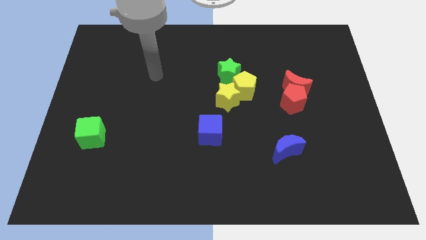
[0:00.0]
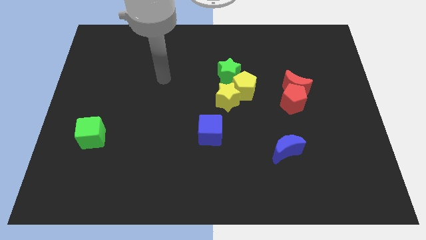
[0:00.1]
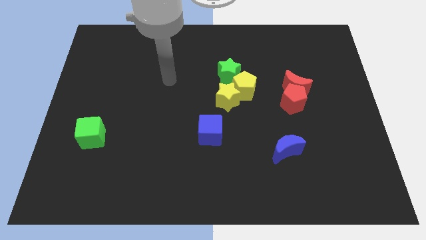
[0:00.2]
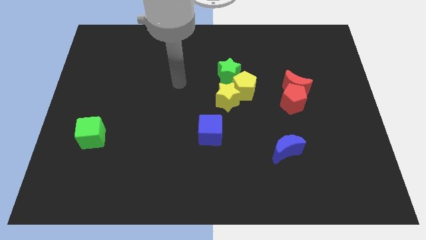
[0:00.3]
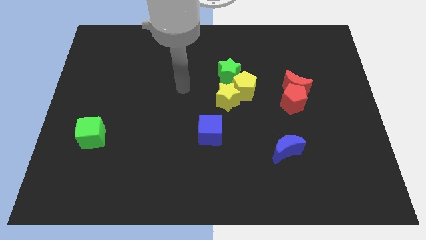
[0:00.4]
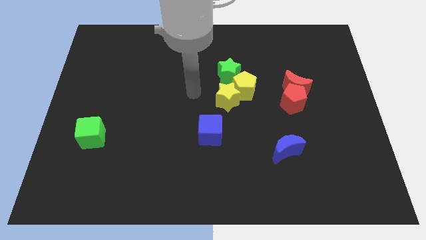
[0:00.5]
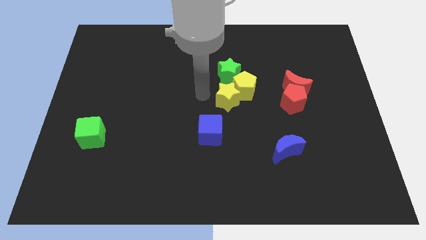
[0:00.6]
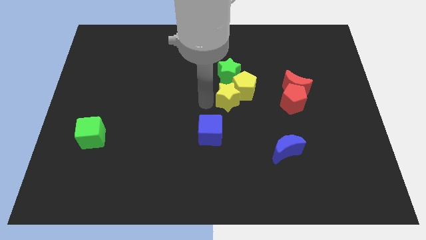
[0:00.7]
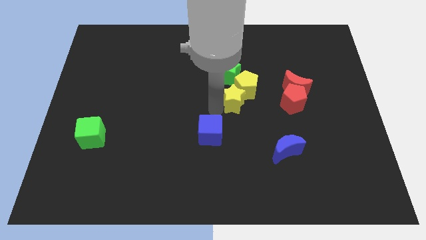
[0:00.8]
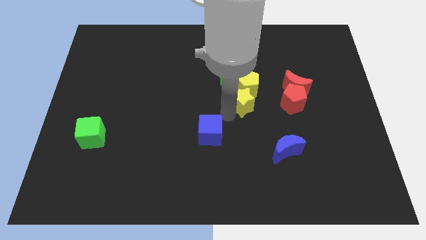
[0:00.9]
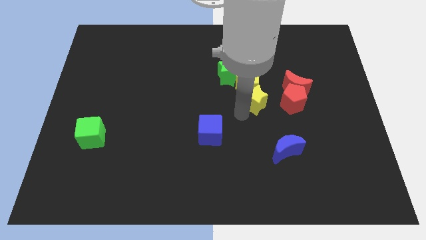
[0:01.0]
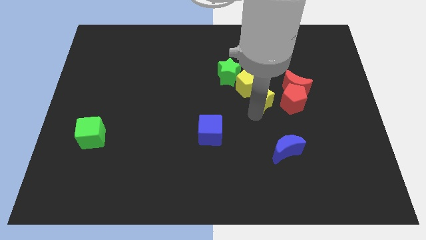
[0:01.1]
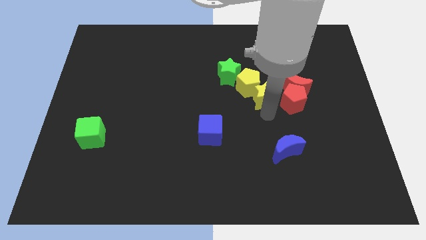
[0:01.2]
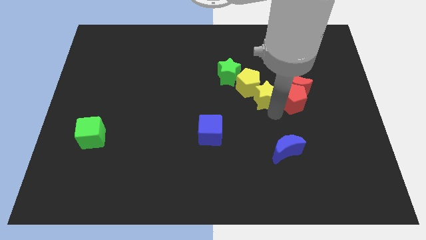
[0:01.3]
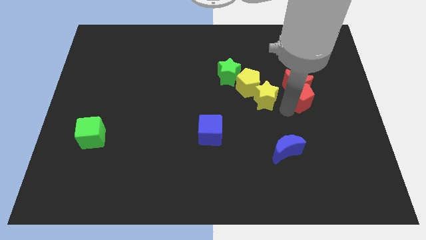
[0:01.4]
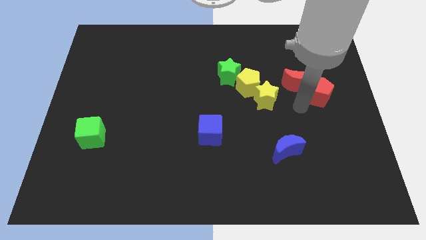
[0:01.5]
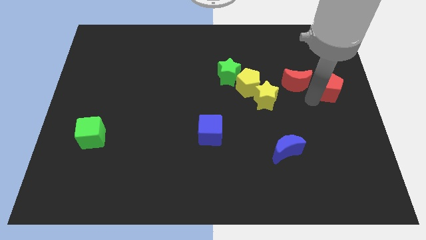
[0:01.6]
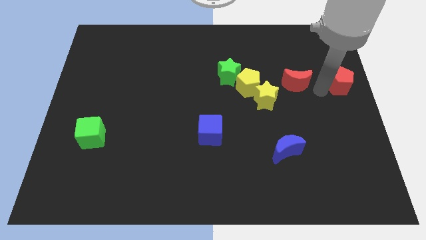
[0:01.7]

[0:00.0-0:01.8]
move the red moon away from the red pentagon

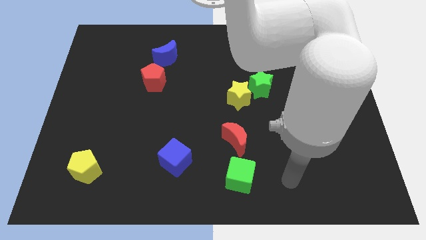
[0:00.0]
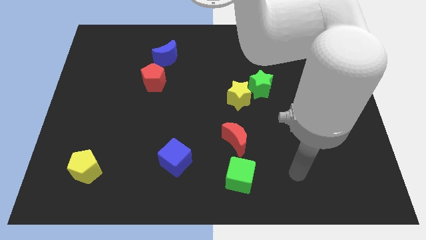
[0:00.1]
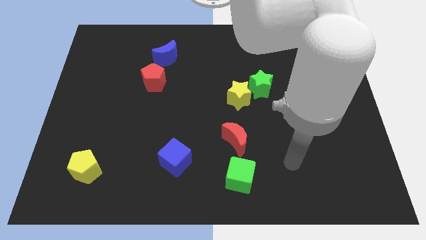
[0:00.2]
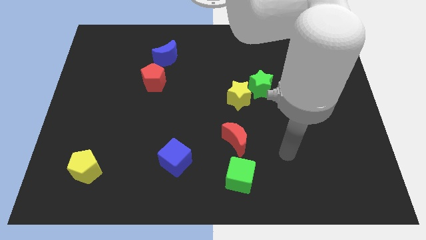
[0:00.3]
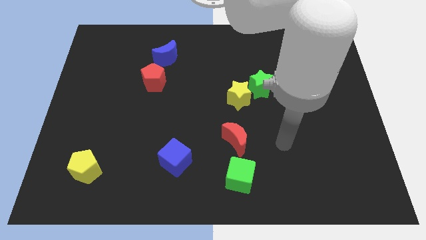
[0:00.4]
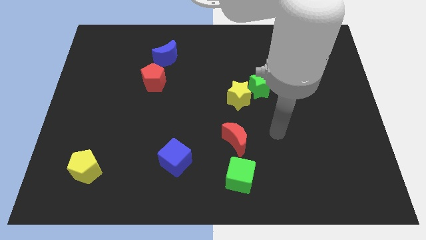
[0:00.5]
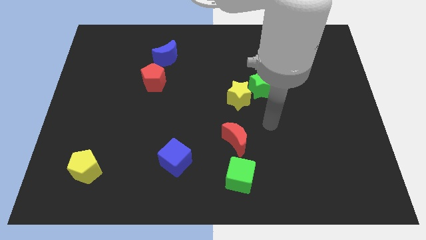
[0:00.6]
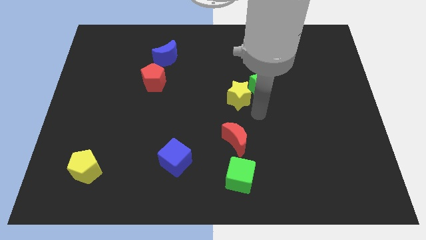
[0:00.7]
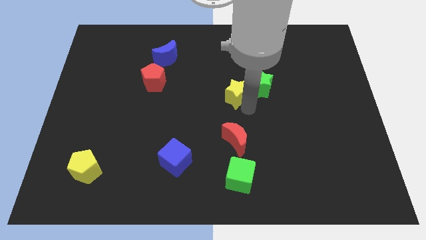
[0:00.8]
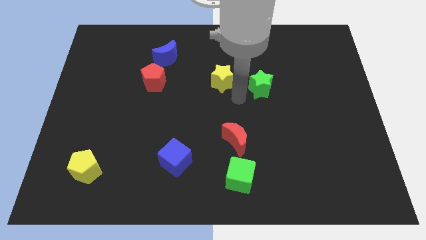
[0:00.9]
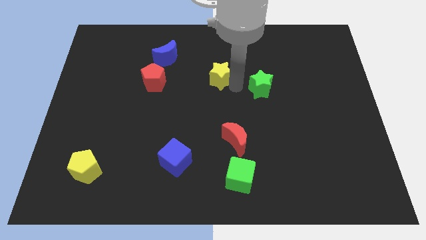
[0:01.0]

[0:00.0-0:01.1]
pull the green star apart from the yellow star

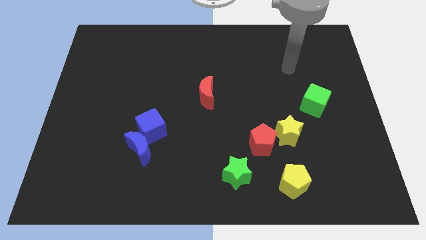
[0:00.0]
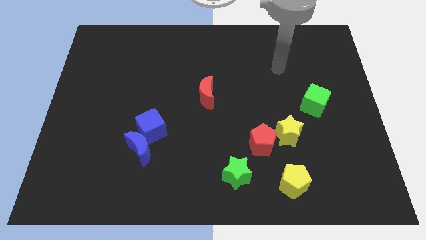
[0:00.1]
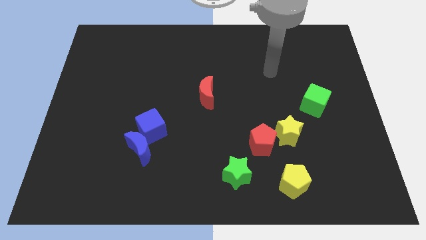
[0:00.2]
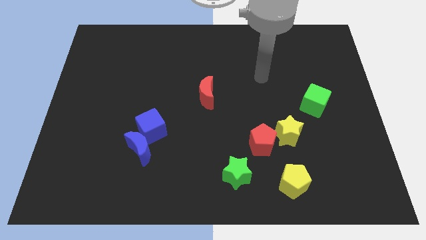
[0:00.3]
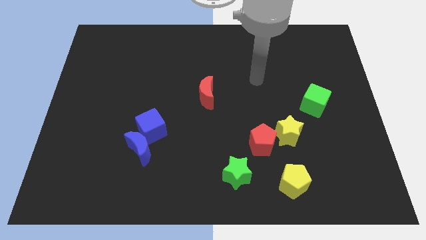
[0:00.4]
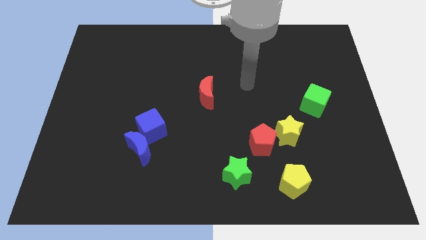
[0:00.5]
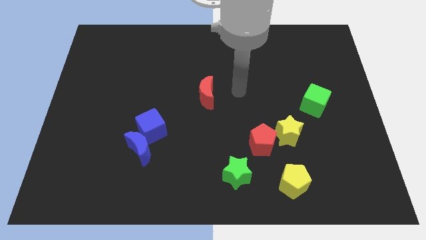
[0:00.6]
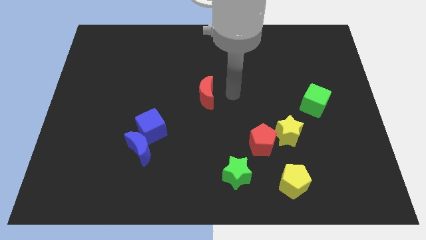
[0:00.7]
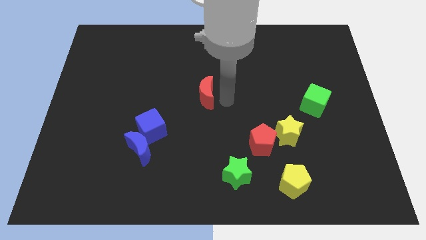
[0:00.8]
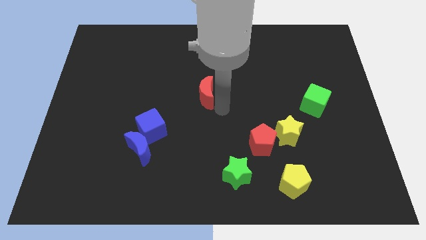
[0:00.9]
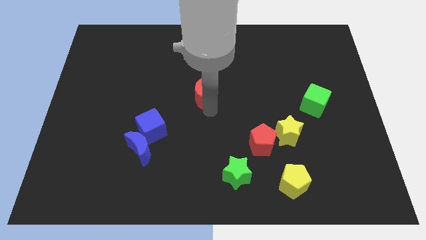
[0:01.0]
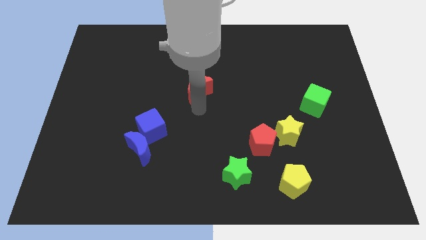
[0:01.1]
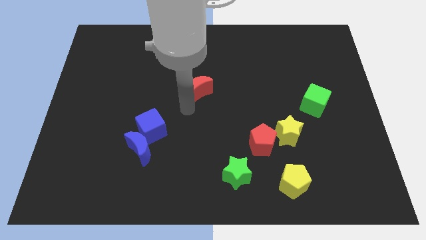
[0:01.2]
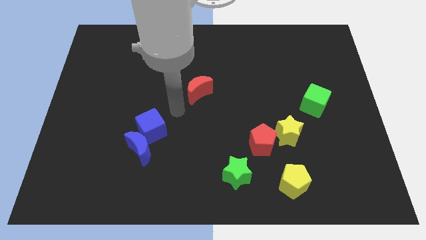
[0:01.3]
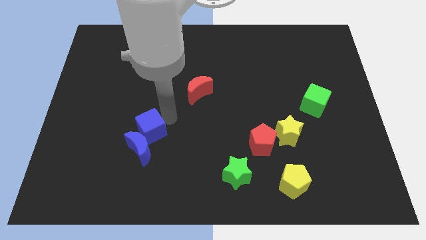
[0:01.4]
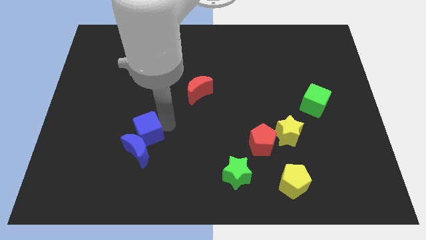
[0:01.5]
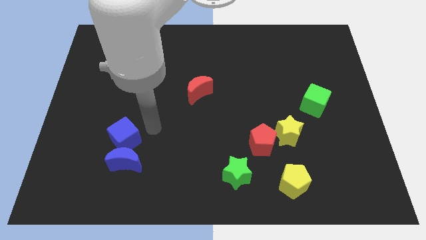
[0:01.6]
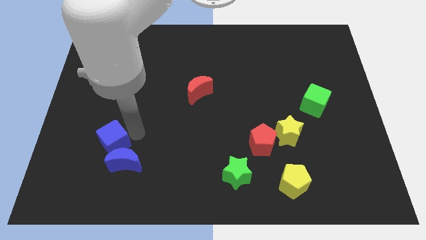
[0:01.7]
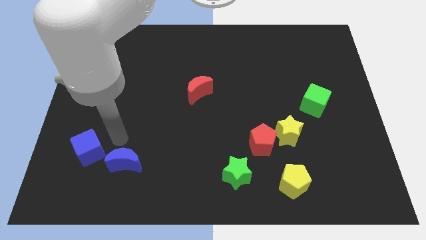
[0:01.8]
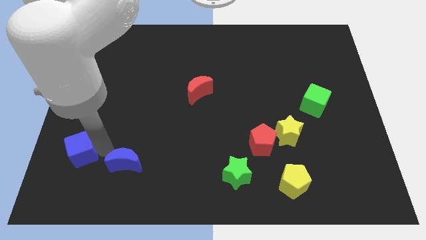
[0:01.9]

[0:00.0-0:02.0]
separate the blue moon from the blue cube

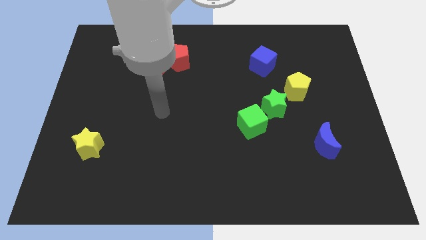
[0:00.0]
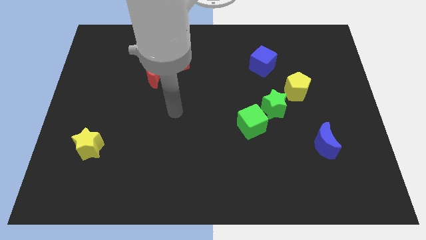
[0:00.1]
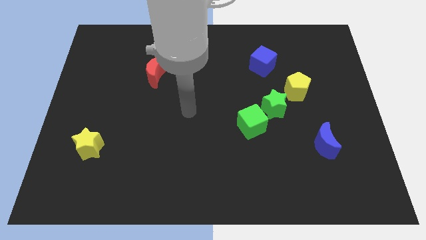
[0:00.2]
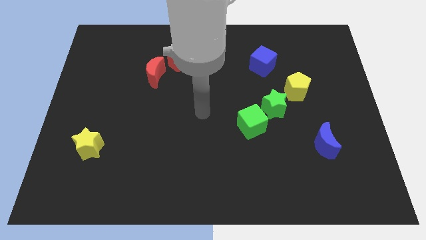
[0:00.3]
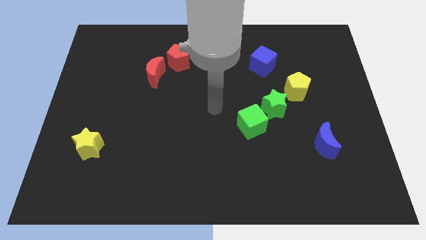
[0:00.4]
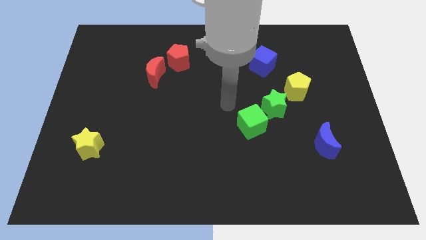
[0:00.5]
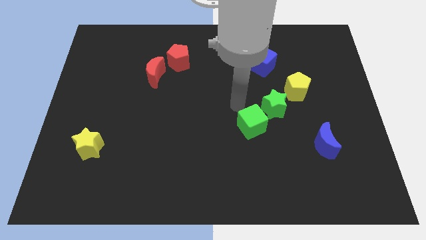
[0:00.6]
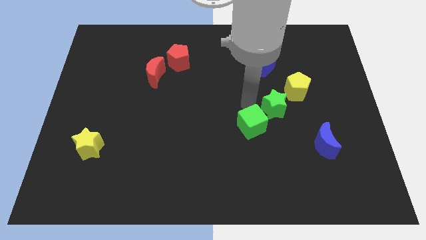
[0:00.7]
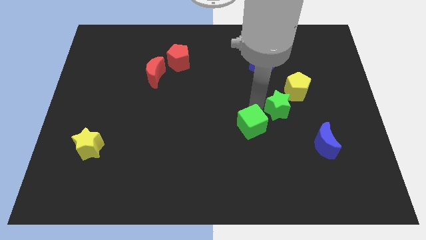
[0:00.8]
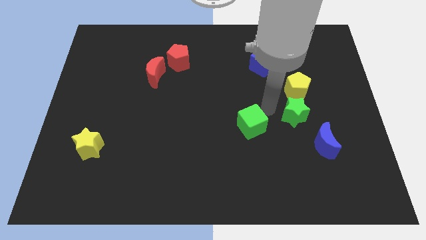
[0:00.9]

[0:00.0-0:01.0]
separate the green cube from the green star

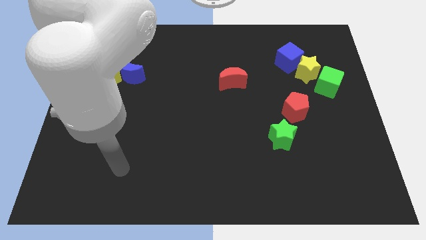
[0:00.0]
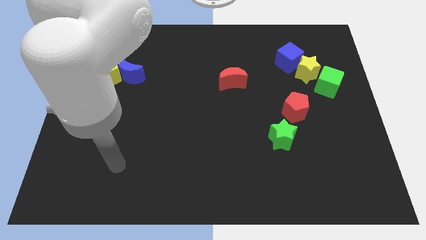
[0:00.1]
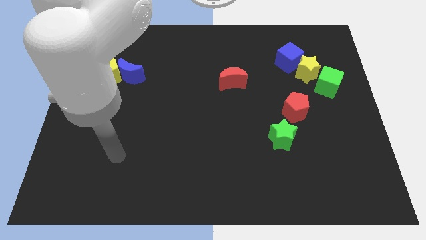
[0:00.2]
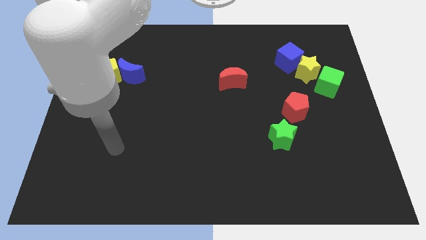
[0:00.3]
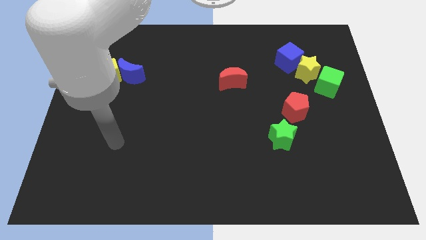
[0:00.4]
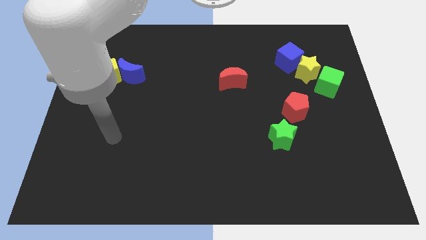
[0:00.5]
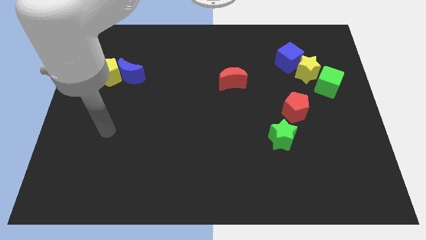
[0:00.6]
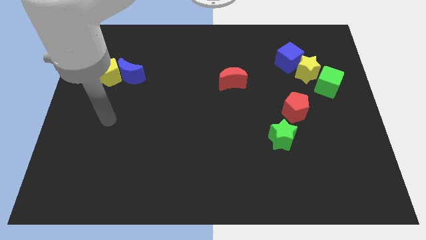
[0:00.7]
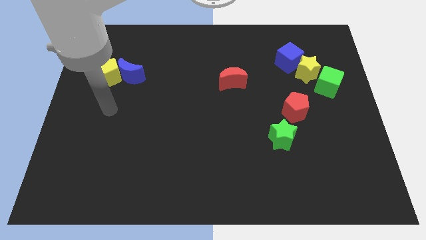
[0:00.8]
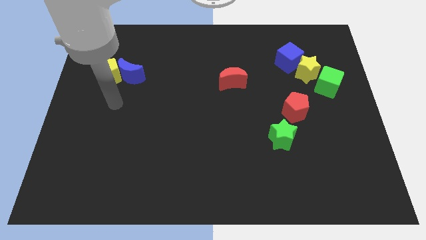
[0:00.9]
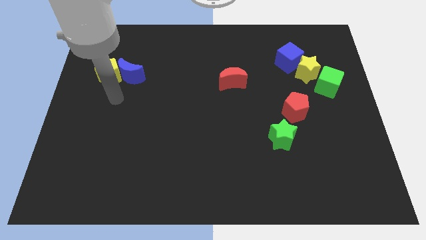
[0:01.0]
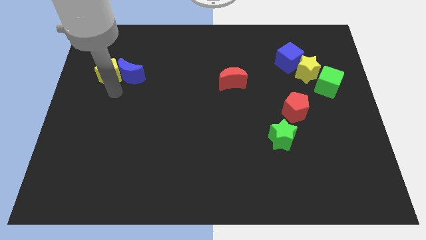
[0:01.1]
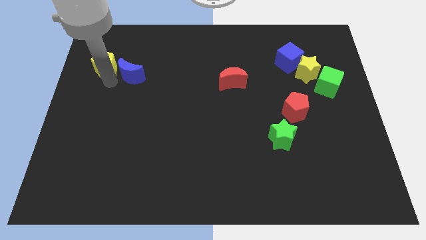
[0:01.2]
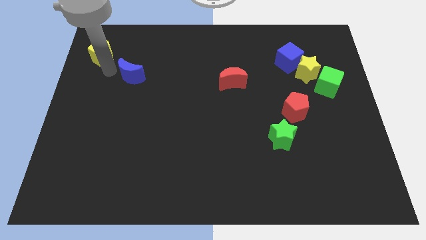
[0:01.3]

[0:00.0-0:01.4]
pull the blue moon apart from the yellow pentagon

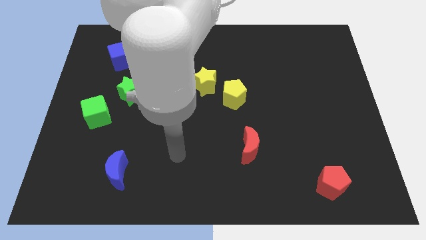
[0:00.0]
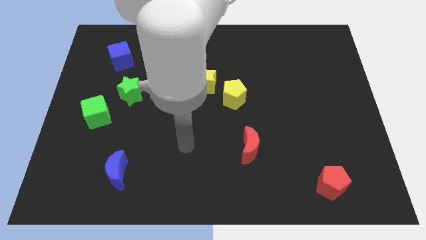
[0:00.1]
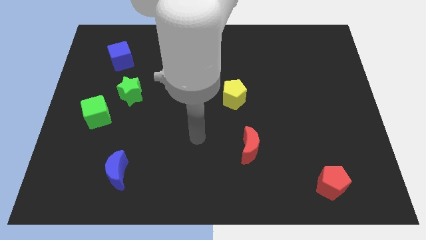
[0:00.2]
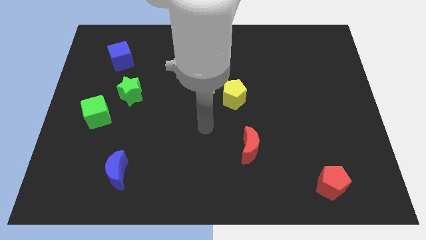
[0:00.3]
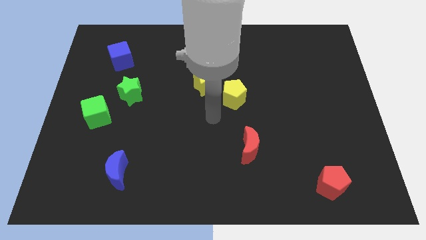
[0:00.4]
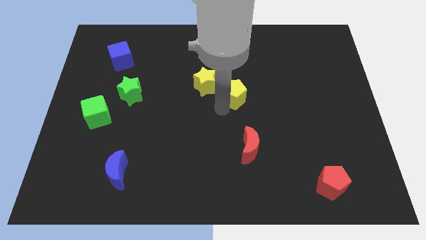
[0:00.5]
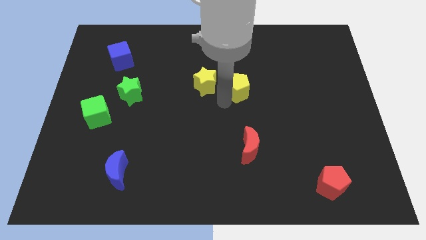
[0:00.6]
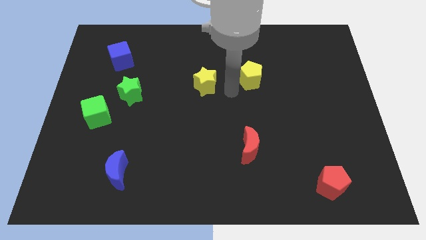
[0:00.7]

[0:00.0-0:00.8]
separate the yellow star from the yellow pentagon

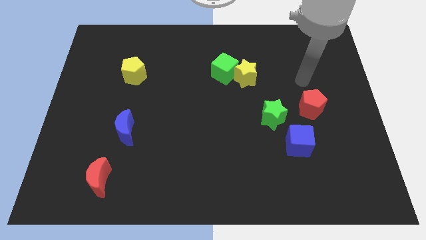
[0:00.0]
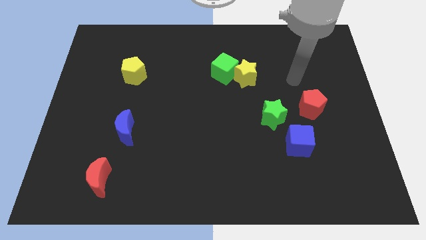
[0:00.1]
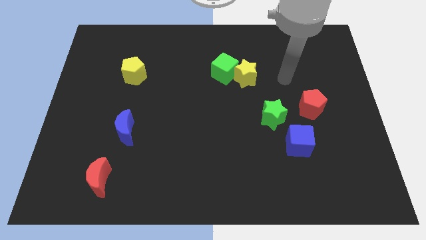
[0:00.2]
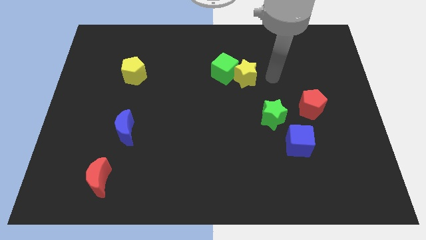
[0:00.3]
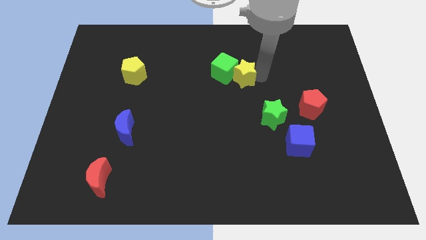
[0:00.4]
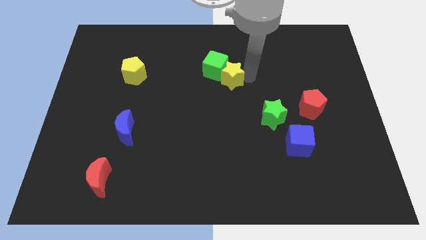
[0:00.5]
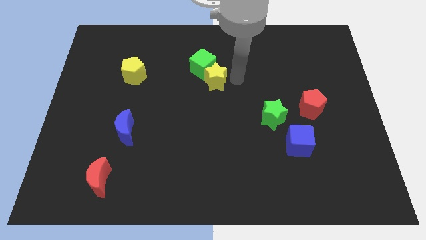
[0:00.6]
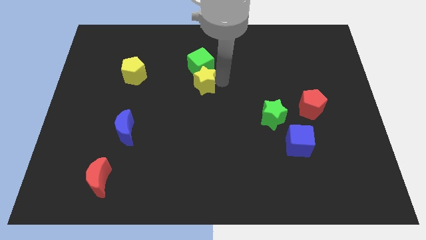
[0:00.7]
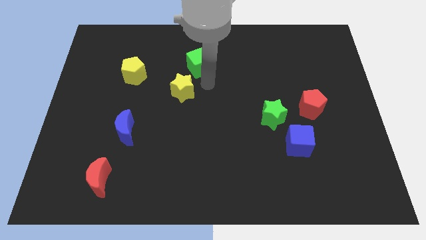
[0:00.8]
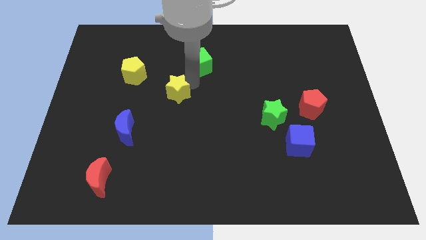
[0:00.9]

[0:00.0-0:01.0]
pull the green cube apart from the yellow star

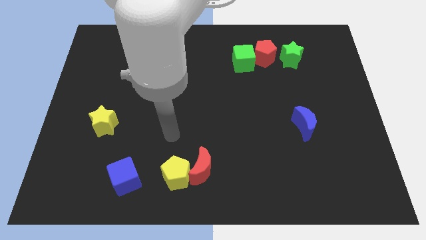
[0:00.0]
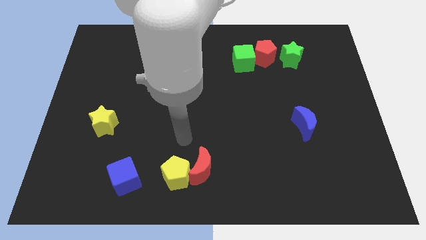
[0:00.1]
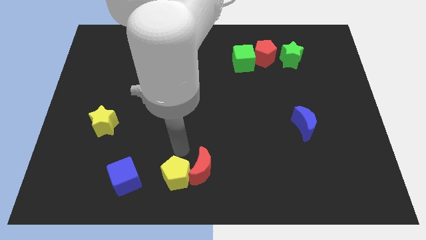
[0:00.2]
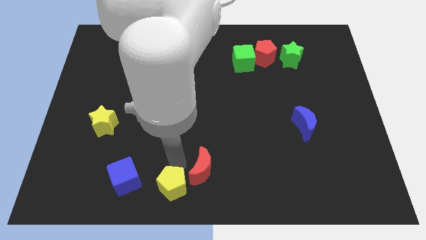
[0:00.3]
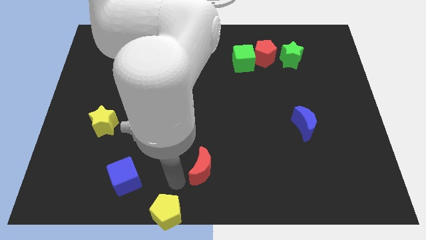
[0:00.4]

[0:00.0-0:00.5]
pull the red moon apart from the yellow pentagon
